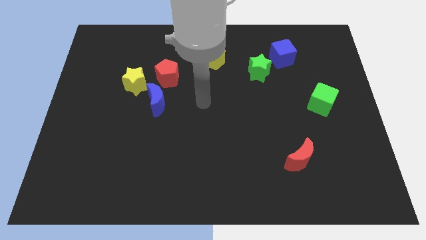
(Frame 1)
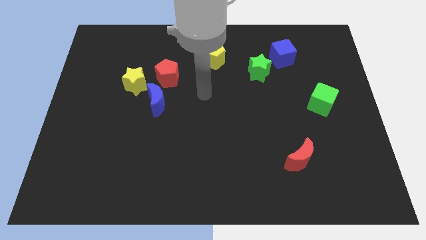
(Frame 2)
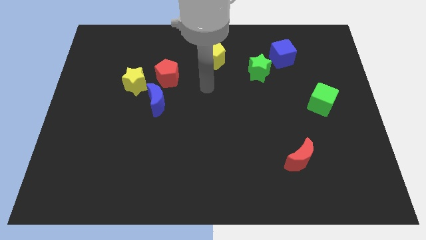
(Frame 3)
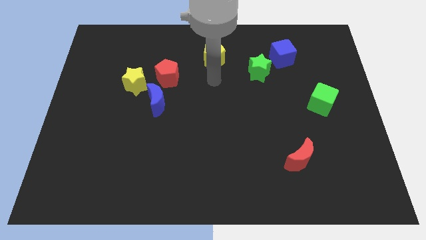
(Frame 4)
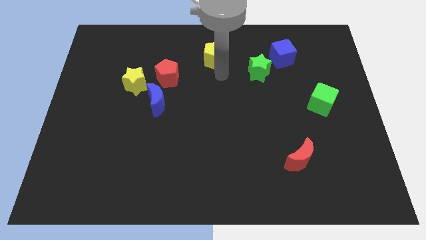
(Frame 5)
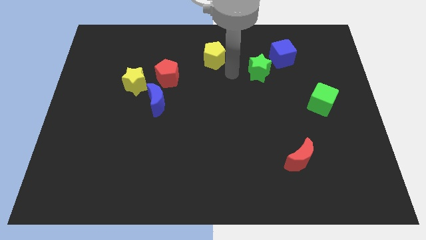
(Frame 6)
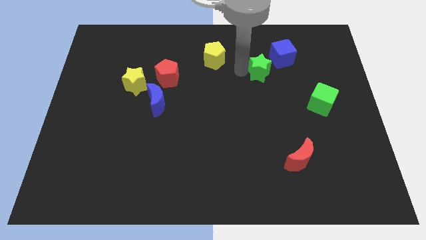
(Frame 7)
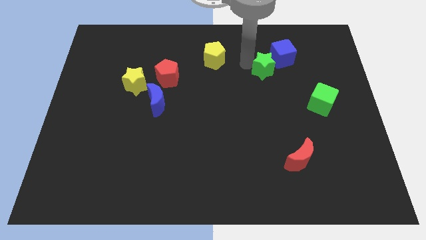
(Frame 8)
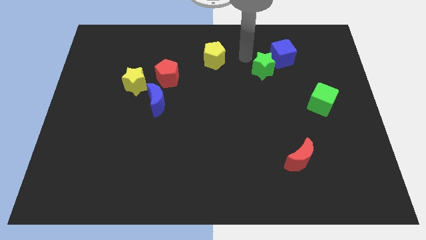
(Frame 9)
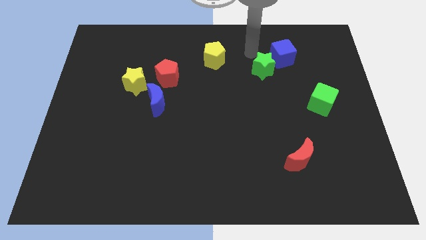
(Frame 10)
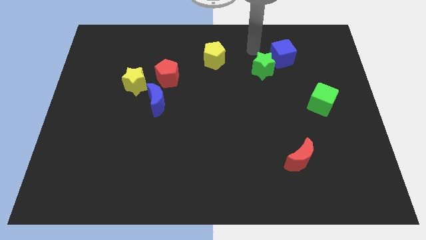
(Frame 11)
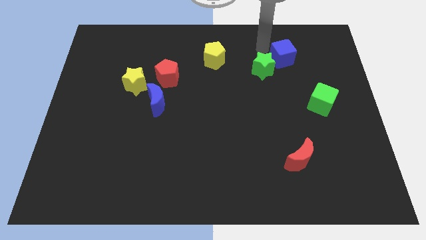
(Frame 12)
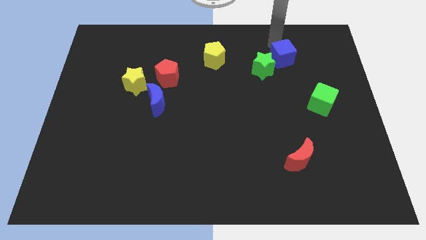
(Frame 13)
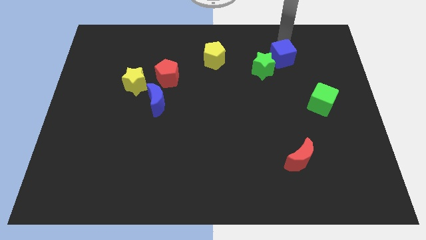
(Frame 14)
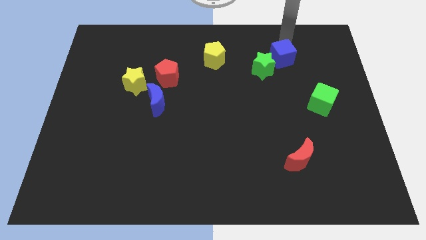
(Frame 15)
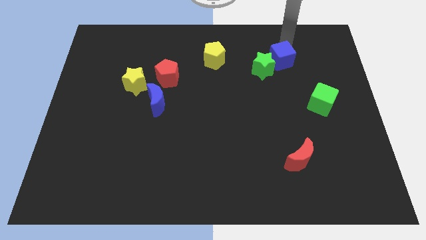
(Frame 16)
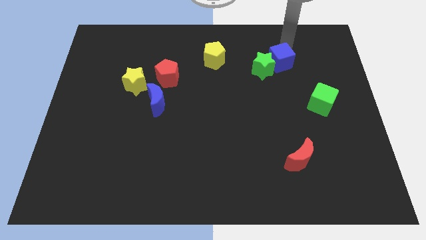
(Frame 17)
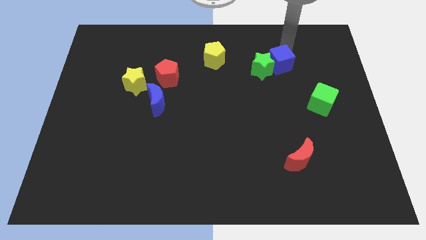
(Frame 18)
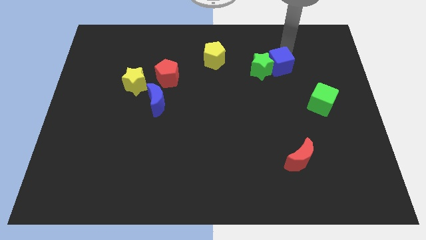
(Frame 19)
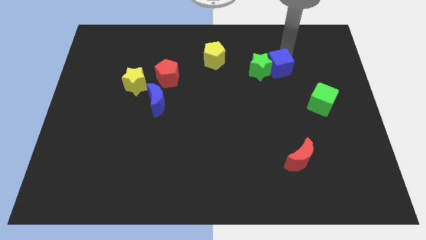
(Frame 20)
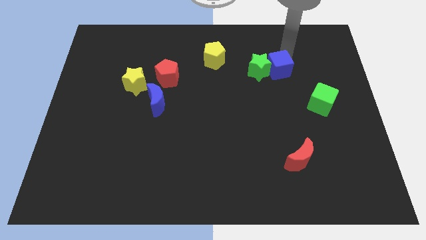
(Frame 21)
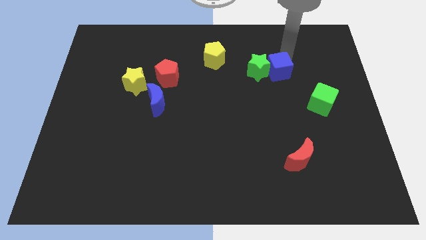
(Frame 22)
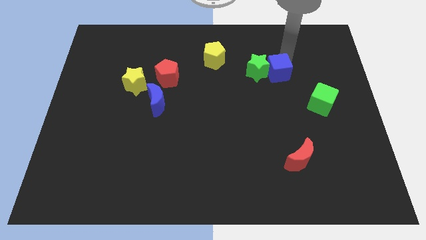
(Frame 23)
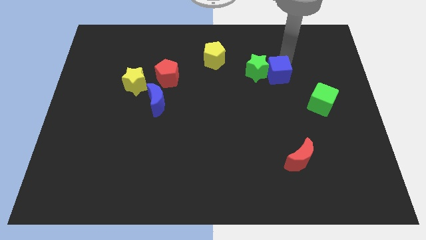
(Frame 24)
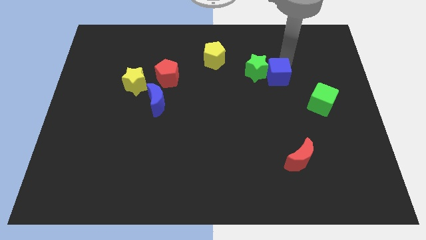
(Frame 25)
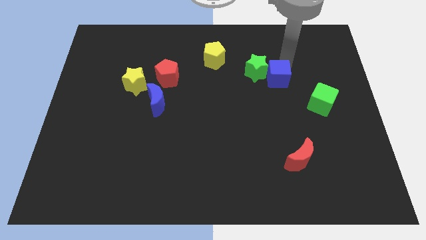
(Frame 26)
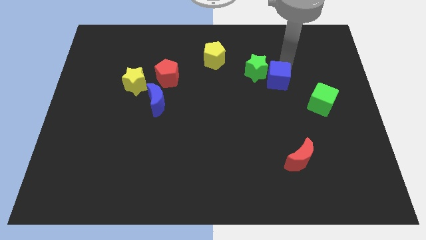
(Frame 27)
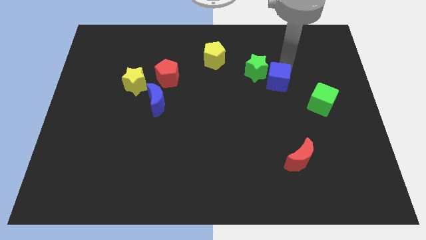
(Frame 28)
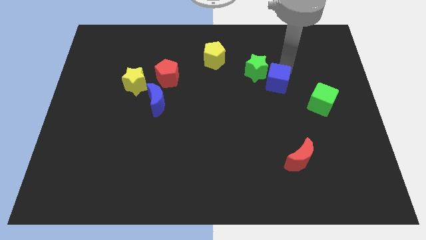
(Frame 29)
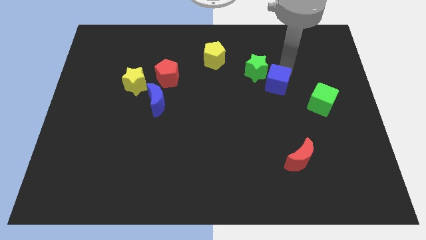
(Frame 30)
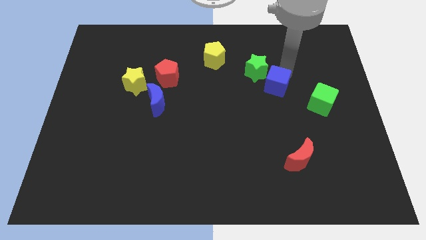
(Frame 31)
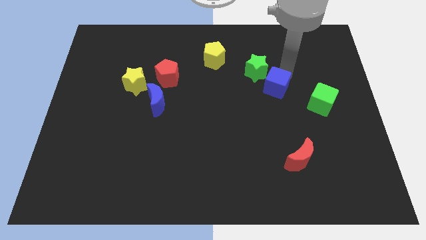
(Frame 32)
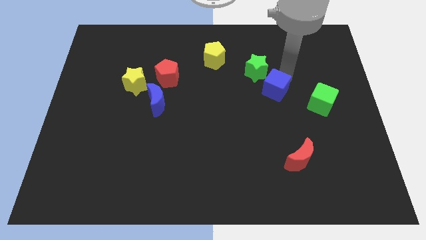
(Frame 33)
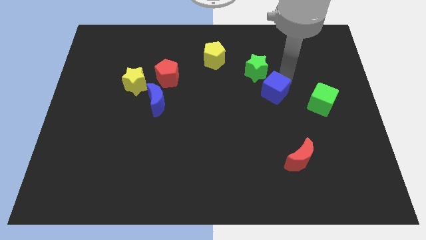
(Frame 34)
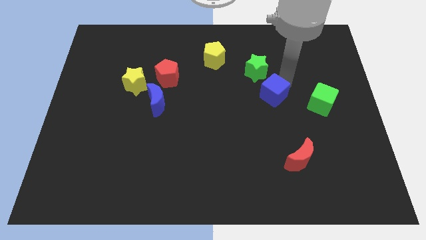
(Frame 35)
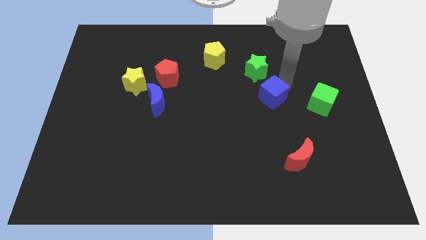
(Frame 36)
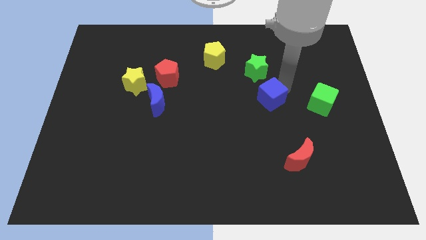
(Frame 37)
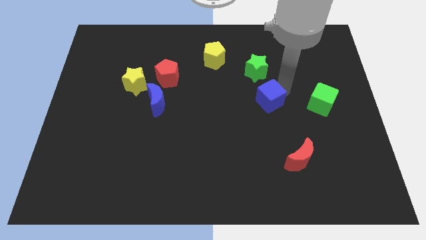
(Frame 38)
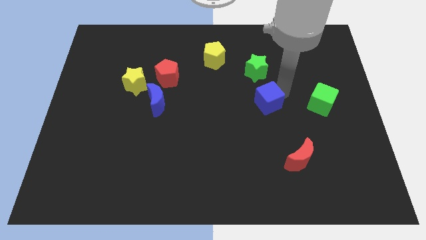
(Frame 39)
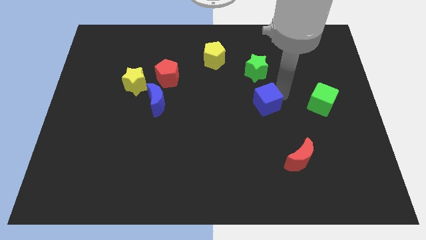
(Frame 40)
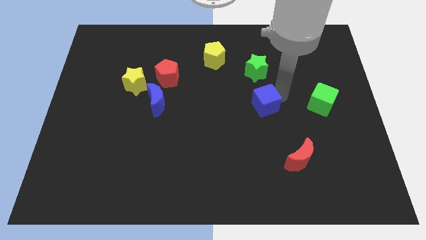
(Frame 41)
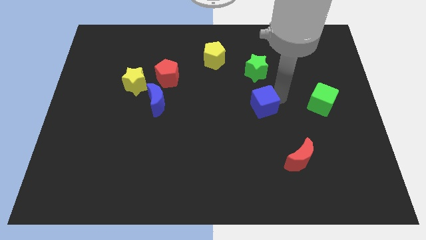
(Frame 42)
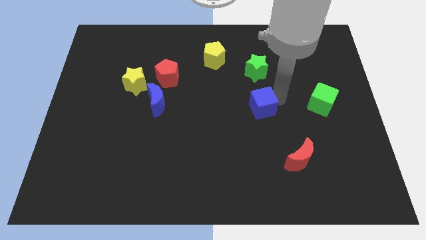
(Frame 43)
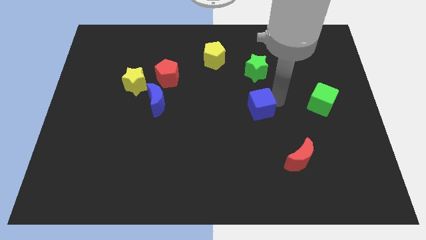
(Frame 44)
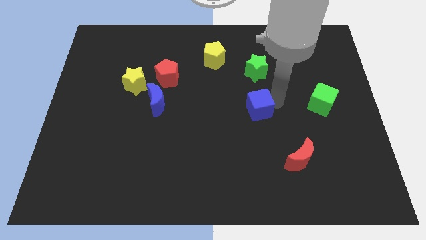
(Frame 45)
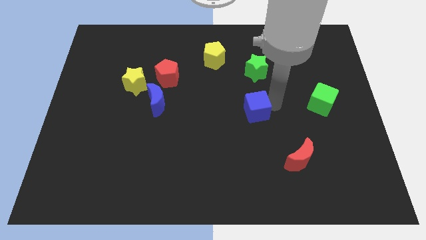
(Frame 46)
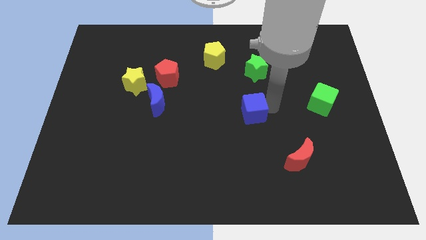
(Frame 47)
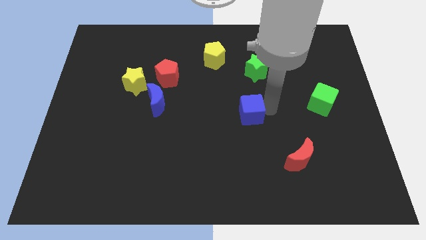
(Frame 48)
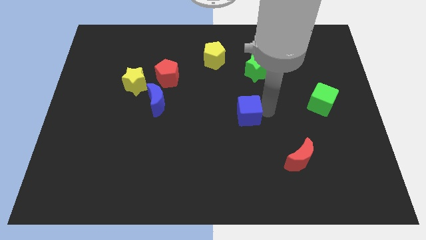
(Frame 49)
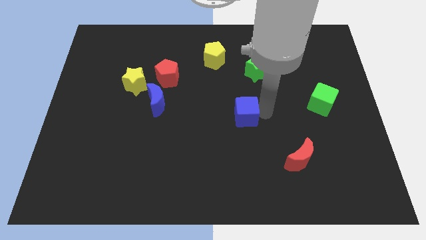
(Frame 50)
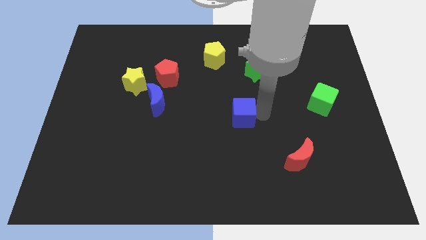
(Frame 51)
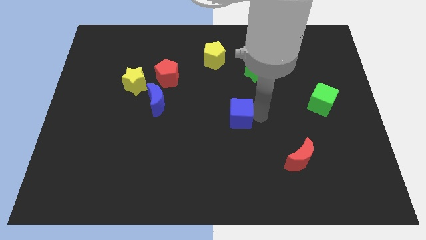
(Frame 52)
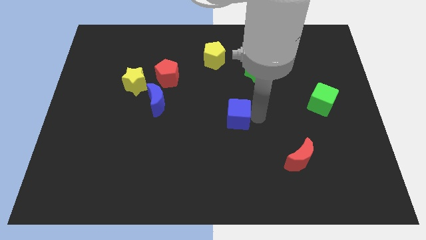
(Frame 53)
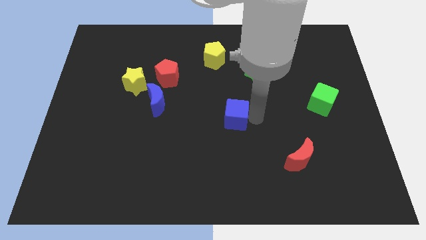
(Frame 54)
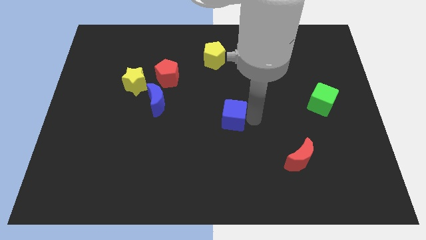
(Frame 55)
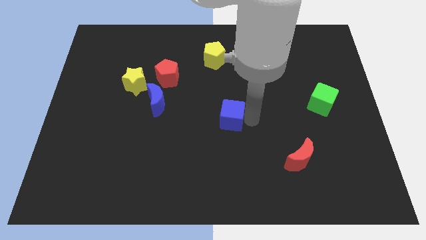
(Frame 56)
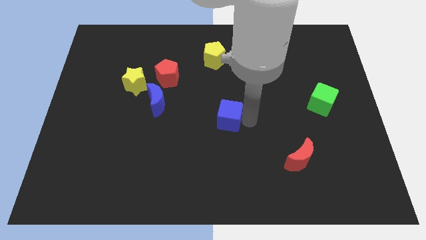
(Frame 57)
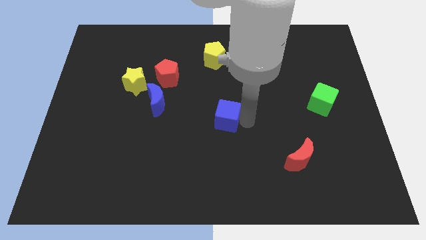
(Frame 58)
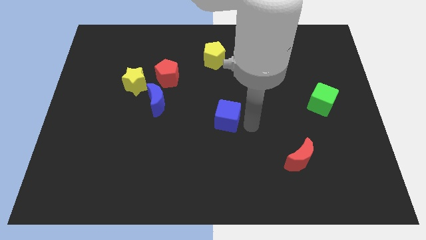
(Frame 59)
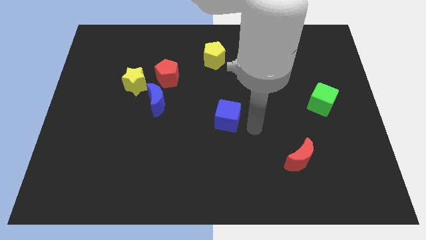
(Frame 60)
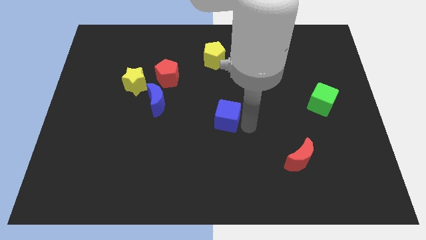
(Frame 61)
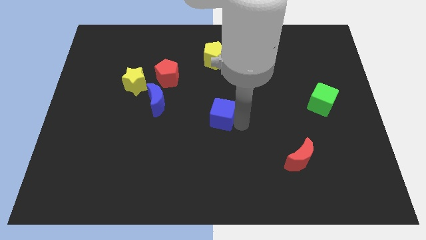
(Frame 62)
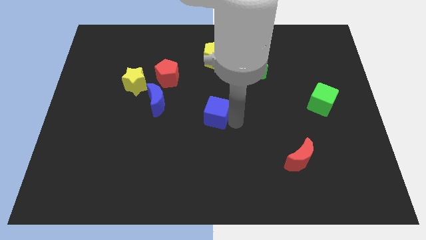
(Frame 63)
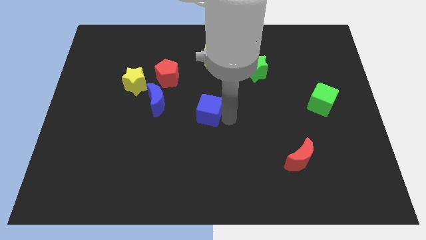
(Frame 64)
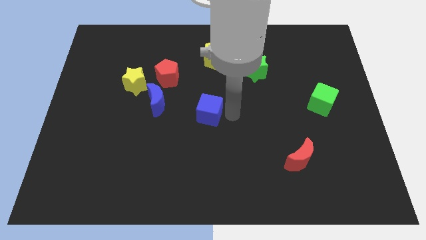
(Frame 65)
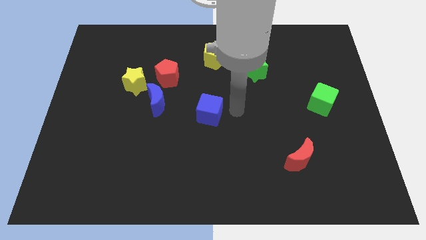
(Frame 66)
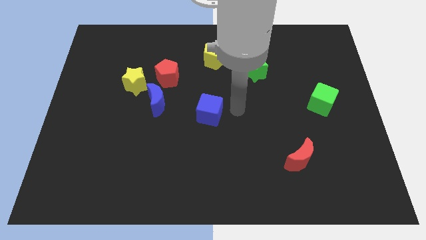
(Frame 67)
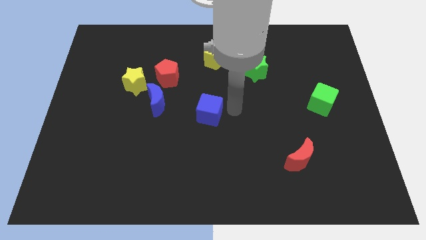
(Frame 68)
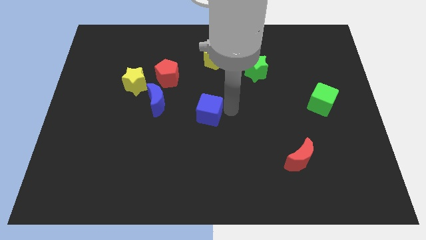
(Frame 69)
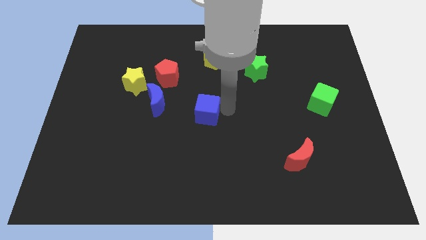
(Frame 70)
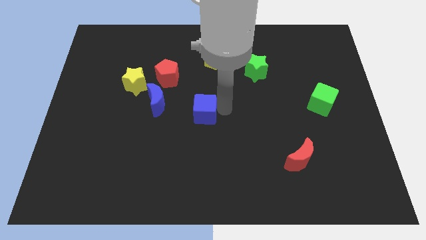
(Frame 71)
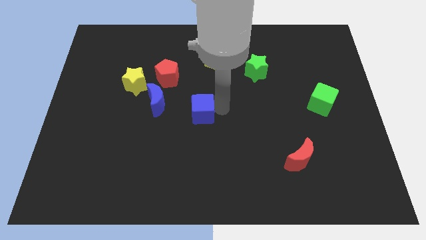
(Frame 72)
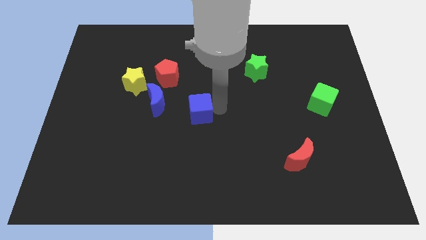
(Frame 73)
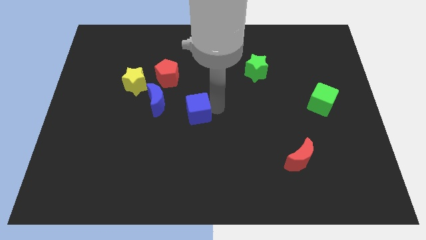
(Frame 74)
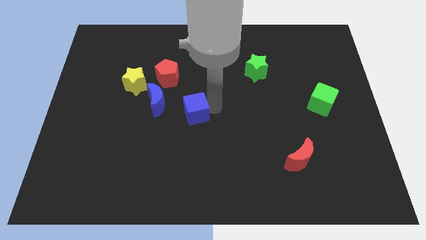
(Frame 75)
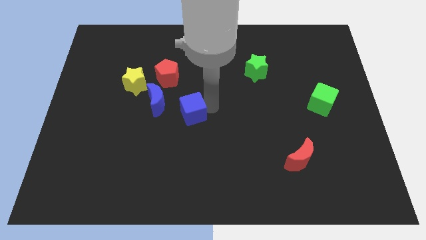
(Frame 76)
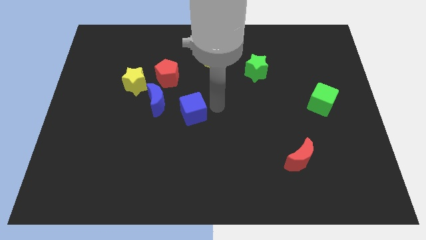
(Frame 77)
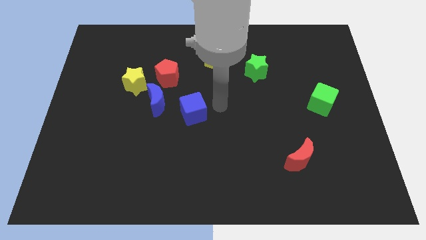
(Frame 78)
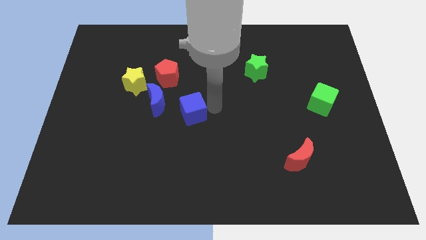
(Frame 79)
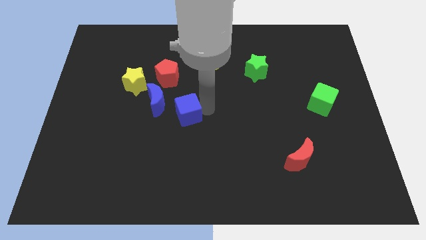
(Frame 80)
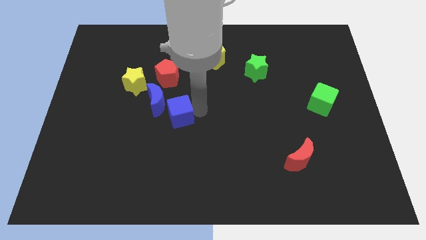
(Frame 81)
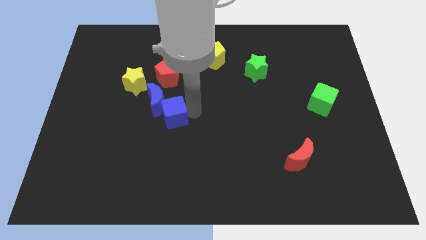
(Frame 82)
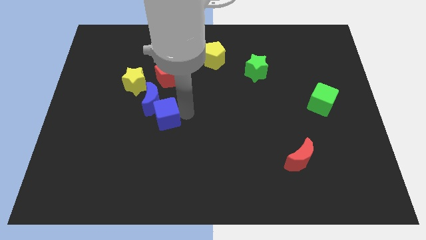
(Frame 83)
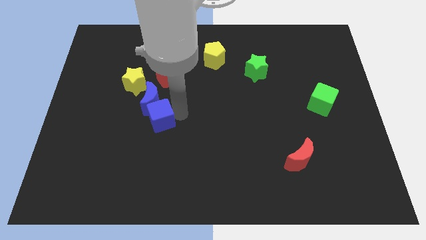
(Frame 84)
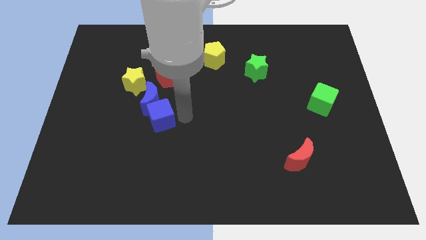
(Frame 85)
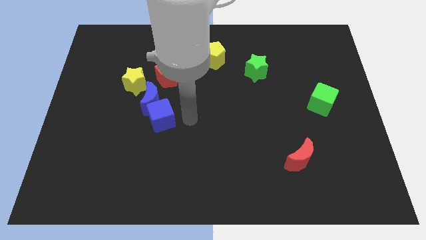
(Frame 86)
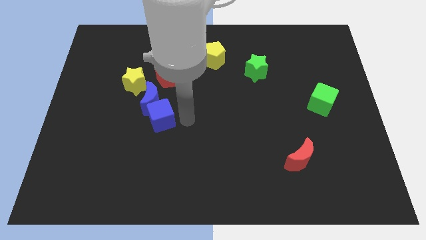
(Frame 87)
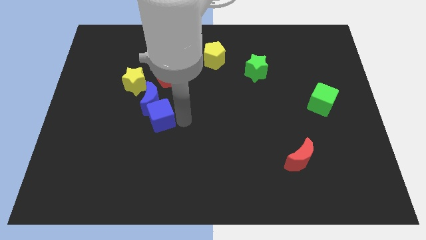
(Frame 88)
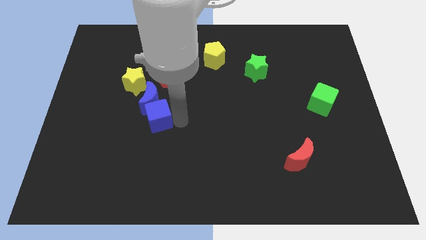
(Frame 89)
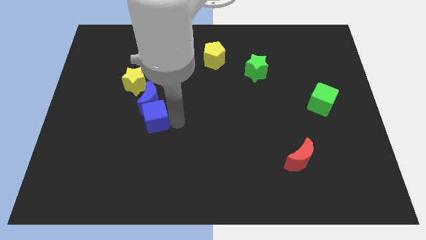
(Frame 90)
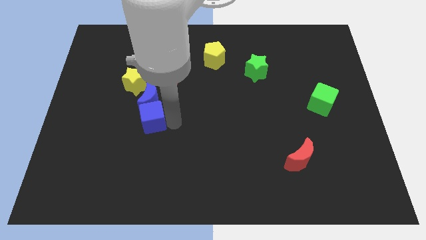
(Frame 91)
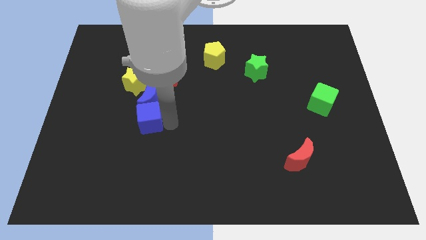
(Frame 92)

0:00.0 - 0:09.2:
move the blue cube to the bottom side of the yellow star
